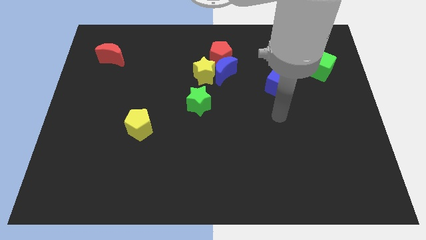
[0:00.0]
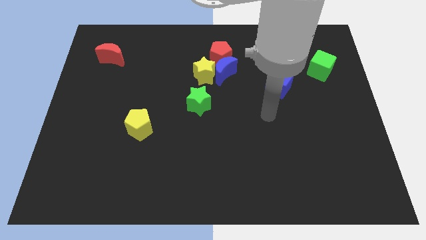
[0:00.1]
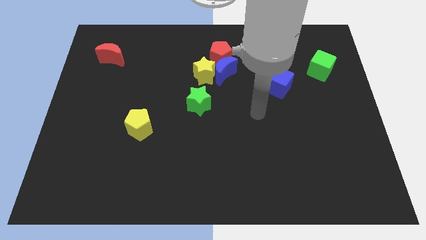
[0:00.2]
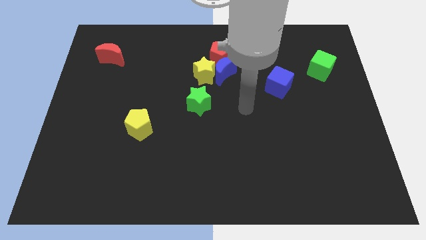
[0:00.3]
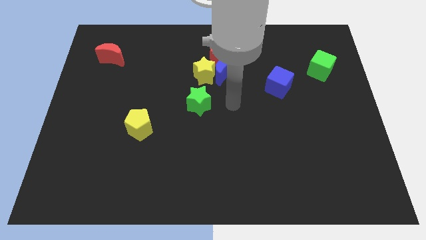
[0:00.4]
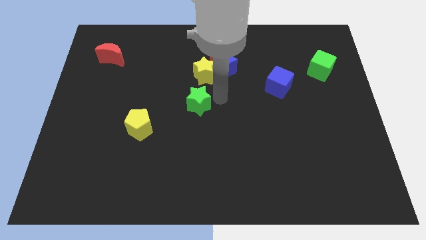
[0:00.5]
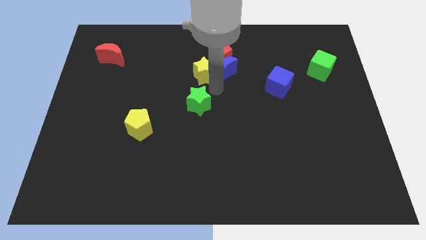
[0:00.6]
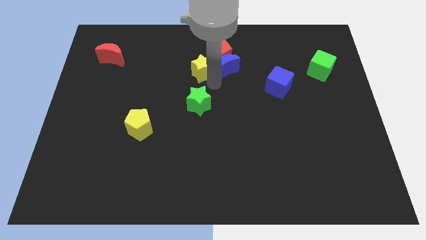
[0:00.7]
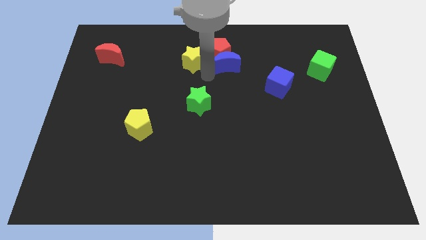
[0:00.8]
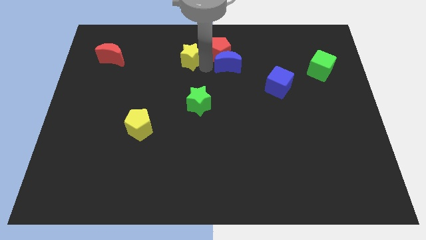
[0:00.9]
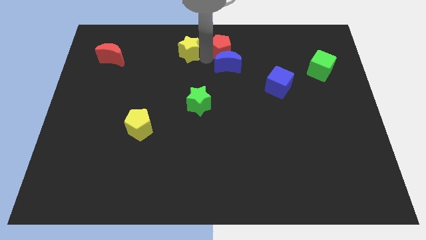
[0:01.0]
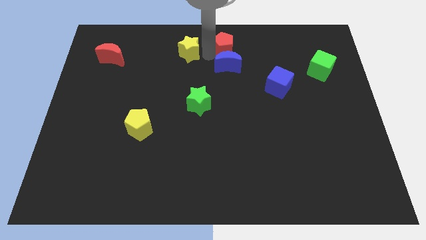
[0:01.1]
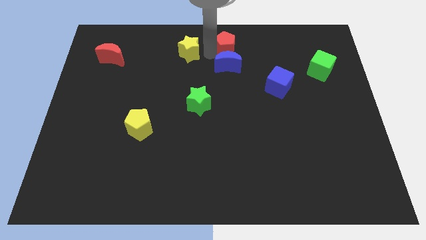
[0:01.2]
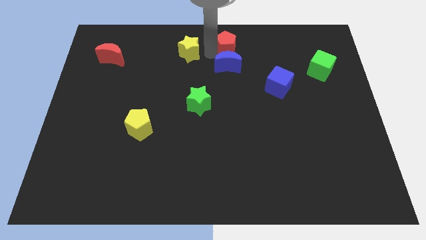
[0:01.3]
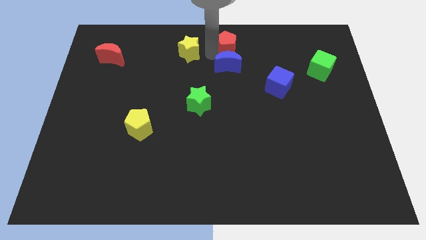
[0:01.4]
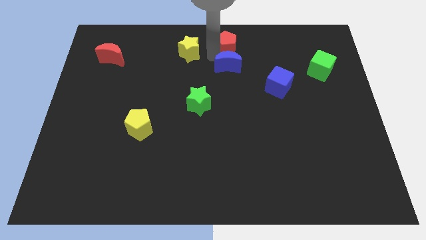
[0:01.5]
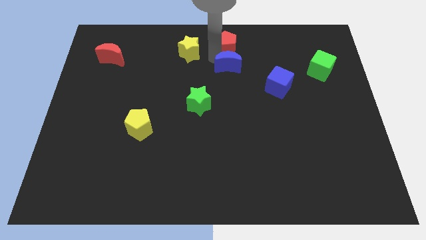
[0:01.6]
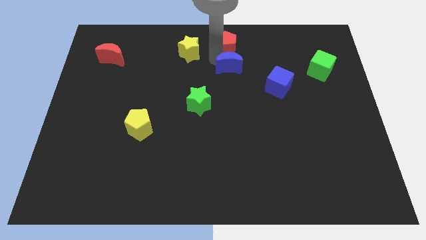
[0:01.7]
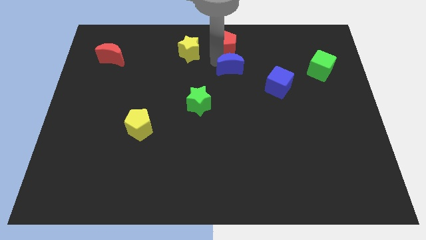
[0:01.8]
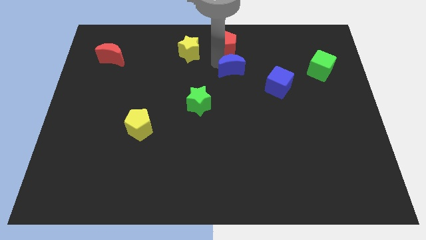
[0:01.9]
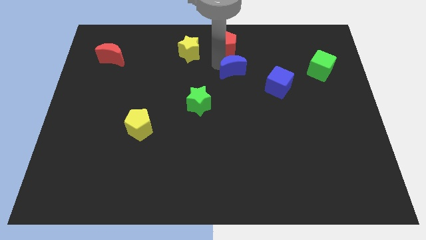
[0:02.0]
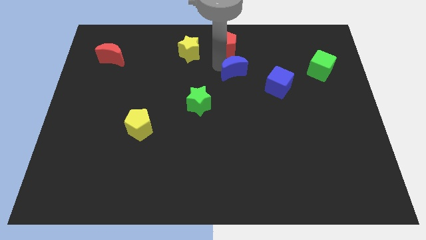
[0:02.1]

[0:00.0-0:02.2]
move the blue moon away from the yellow star and red pentagon

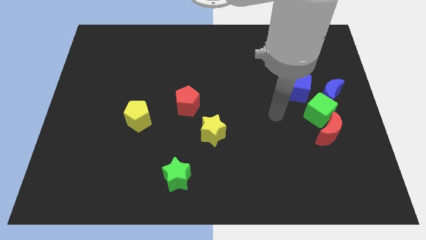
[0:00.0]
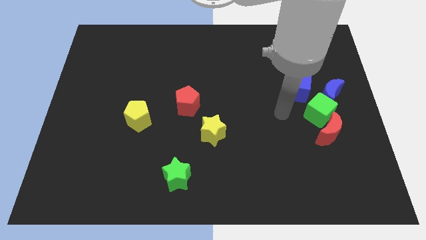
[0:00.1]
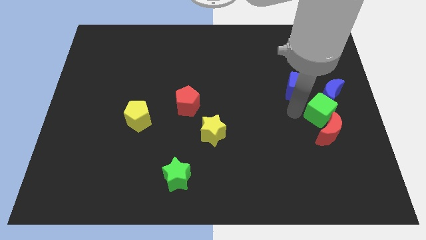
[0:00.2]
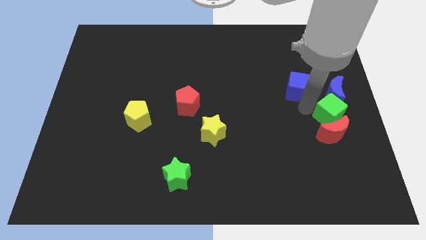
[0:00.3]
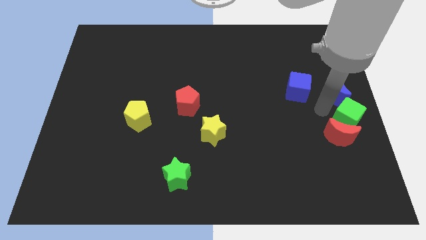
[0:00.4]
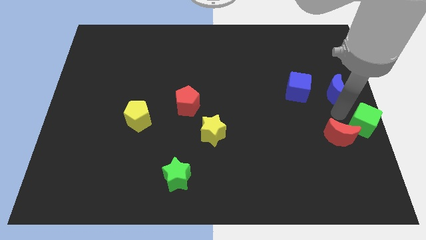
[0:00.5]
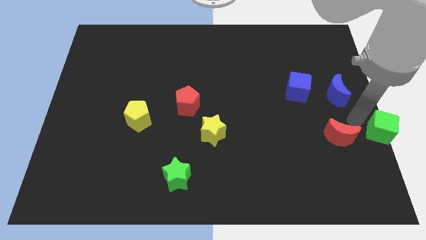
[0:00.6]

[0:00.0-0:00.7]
separate the red moon from the green cube

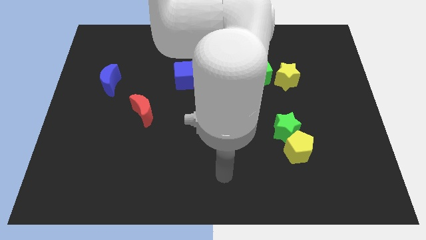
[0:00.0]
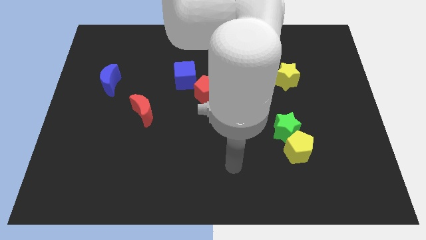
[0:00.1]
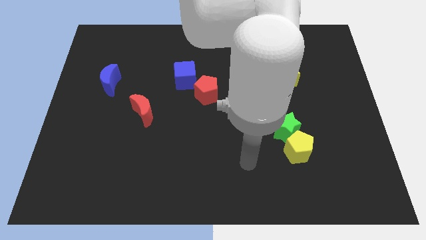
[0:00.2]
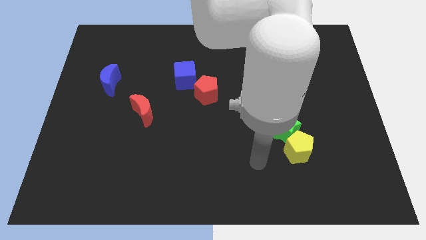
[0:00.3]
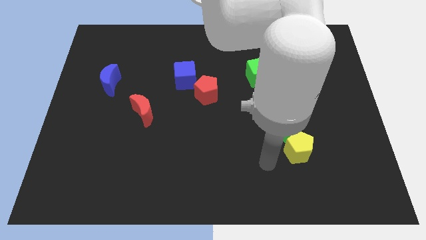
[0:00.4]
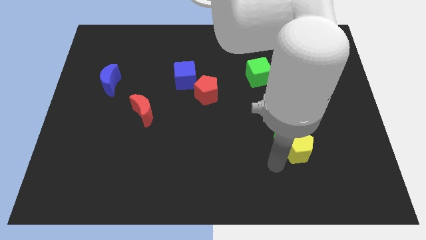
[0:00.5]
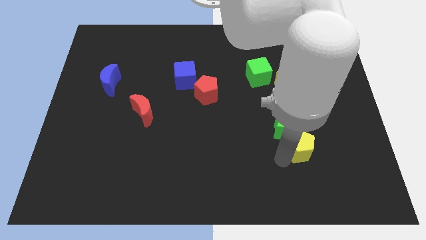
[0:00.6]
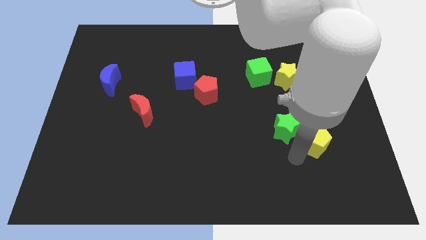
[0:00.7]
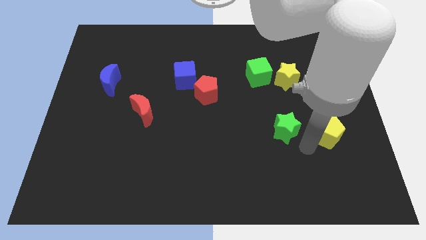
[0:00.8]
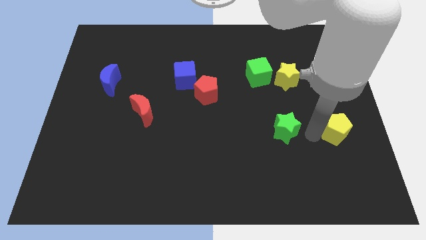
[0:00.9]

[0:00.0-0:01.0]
move the green star away from the yellow pentagon

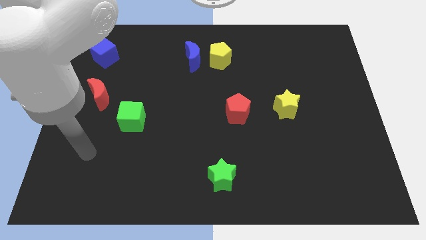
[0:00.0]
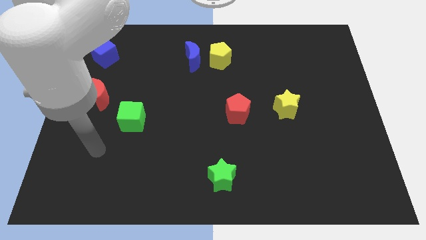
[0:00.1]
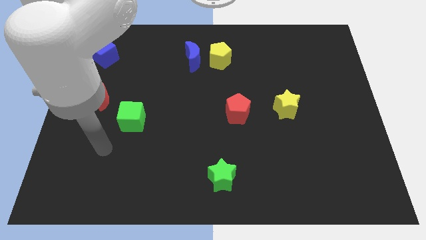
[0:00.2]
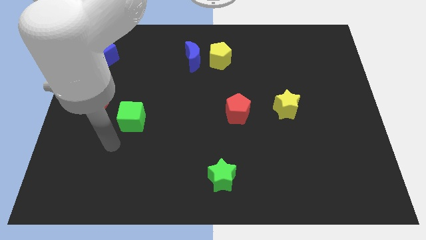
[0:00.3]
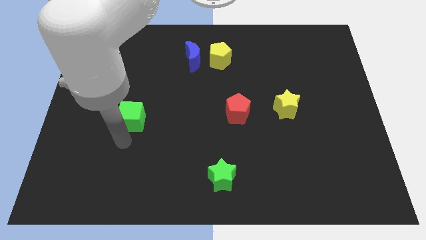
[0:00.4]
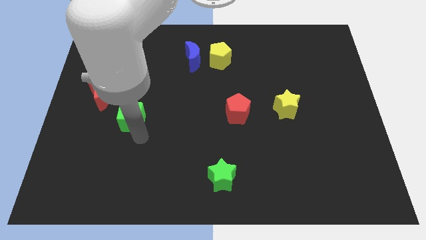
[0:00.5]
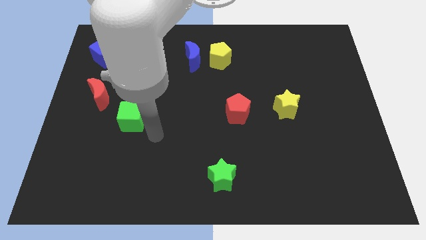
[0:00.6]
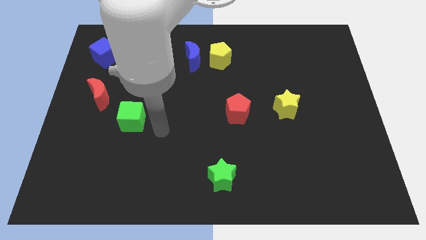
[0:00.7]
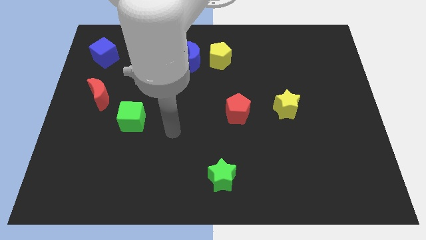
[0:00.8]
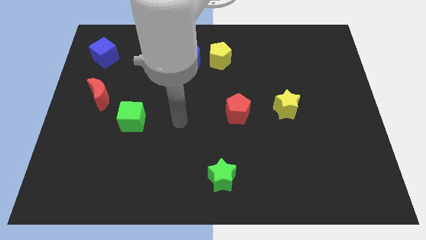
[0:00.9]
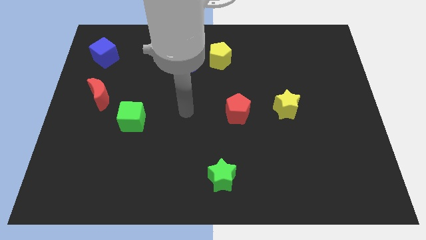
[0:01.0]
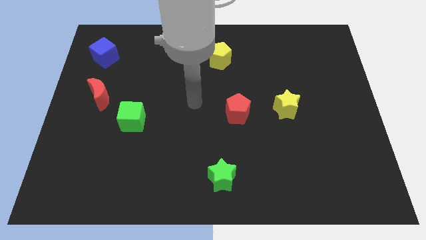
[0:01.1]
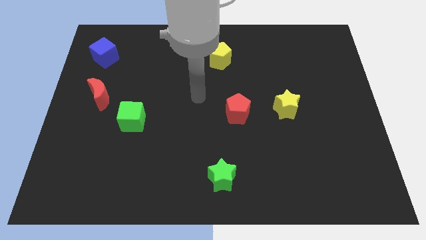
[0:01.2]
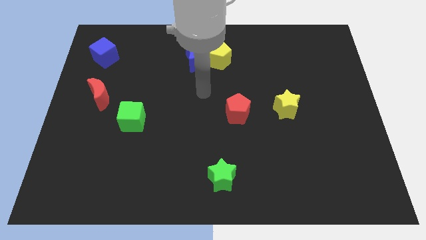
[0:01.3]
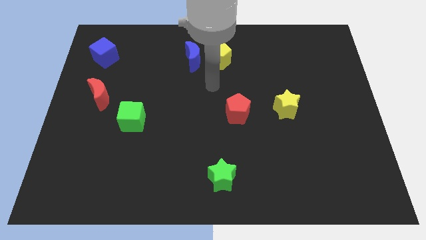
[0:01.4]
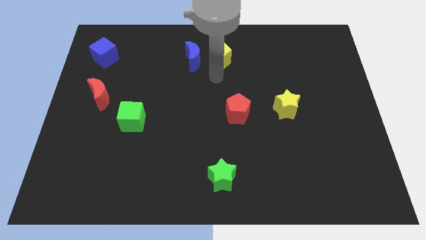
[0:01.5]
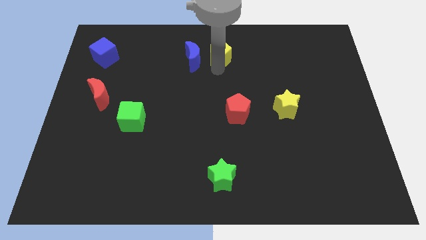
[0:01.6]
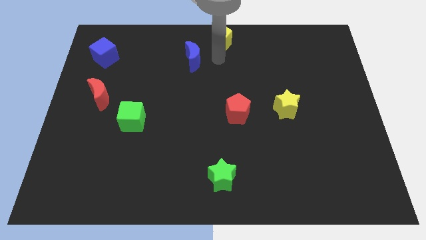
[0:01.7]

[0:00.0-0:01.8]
pull the blue moon apart from the yellow pentagon

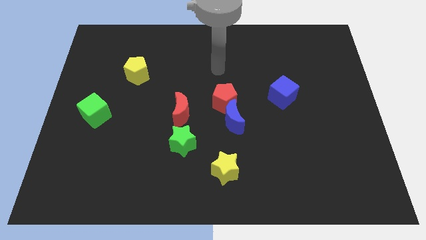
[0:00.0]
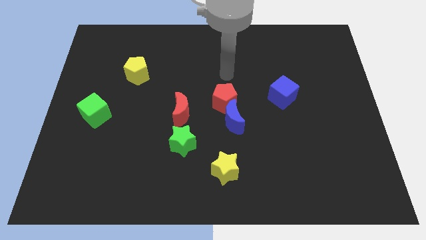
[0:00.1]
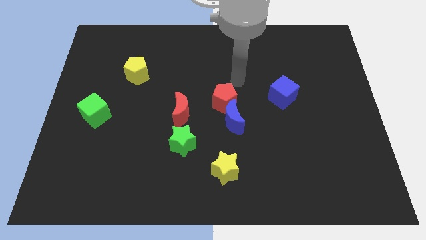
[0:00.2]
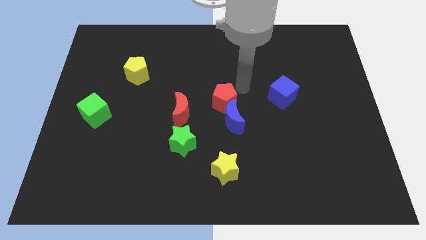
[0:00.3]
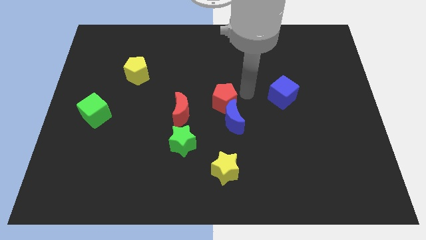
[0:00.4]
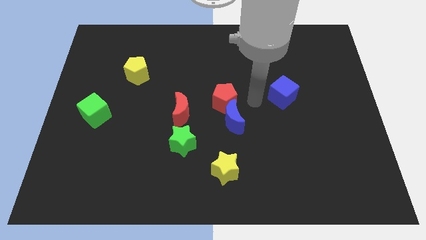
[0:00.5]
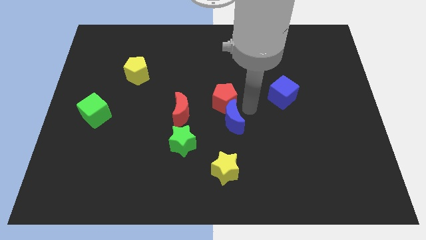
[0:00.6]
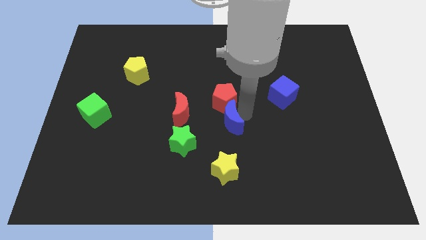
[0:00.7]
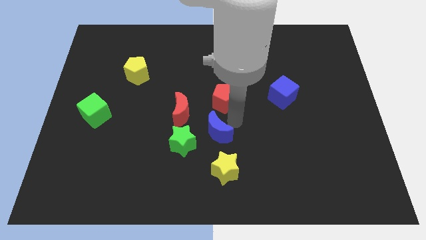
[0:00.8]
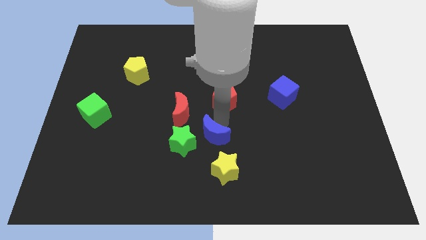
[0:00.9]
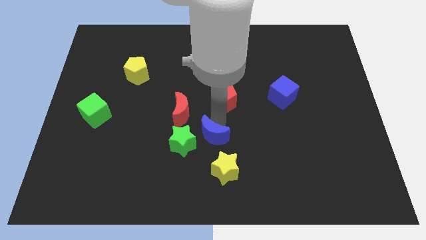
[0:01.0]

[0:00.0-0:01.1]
move the red pentagon away from the blue moon

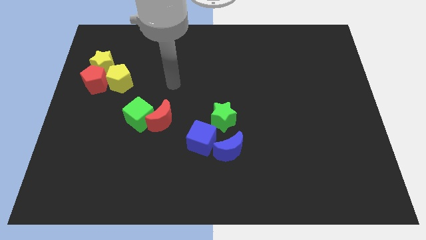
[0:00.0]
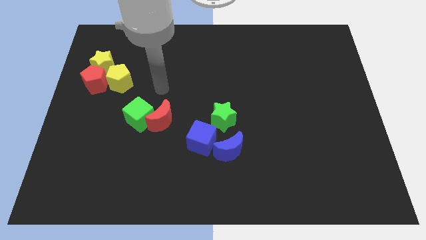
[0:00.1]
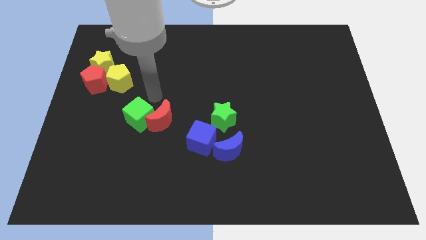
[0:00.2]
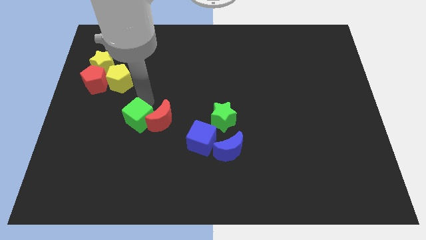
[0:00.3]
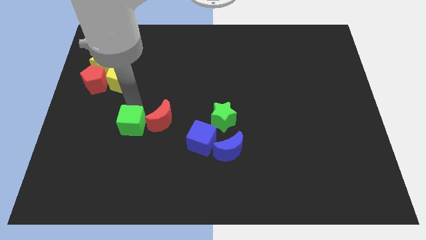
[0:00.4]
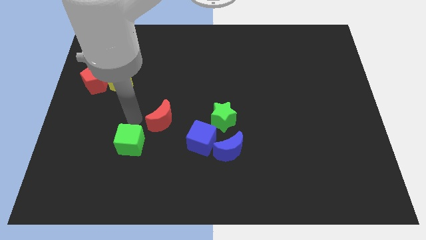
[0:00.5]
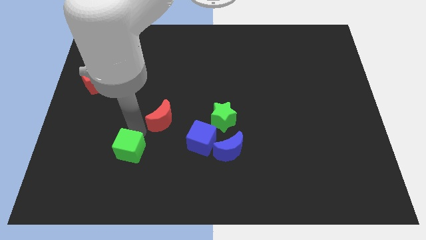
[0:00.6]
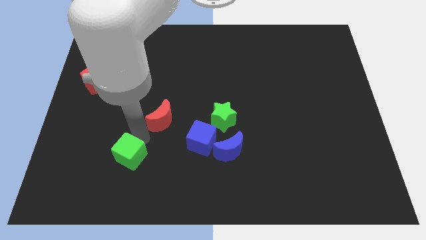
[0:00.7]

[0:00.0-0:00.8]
move the red moon away from the green cube

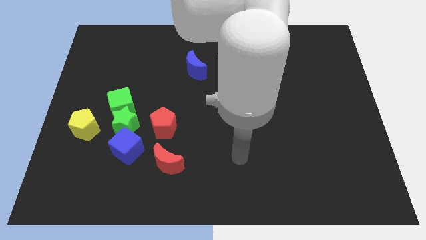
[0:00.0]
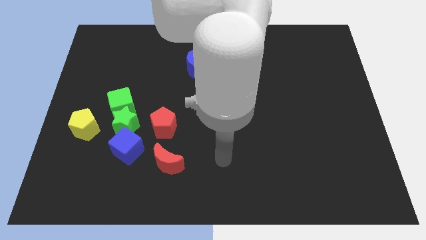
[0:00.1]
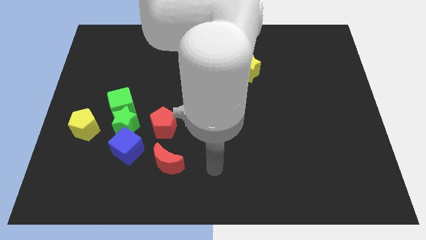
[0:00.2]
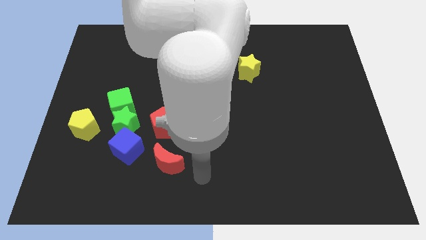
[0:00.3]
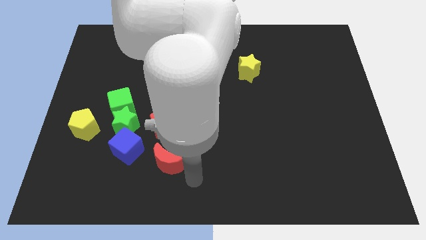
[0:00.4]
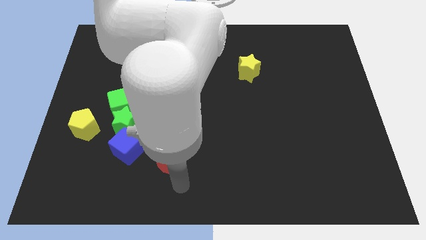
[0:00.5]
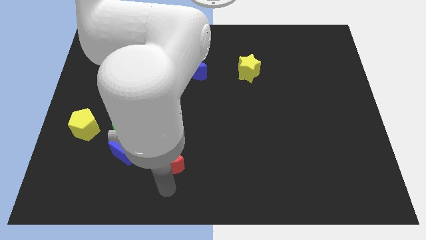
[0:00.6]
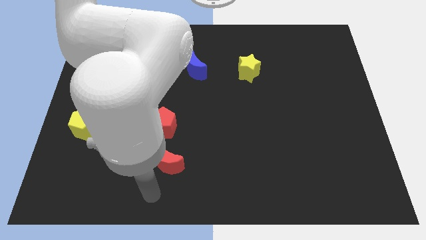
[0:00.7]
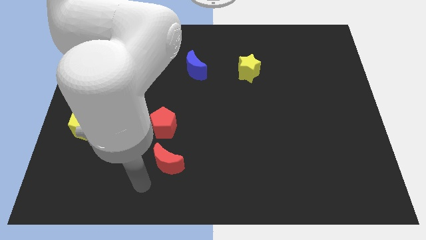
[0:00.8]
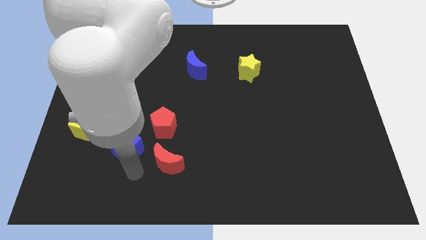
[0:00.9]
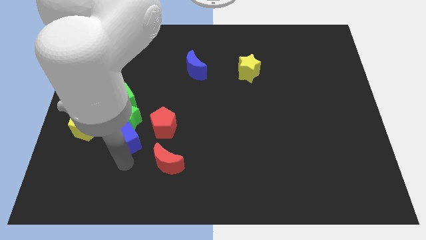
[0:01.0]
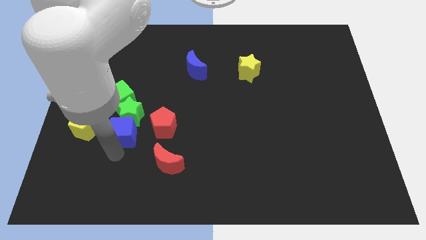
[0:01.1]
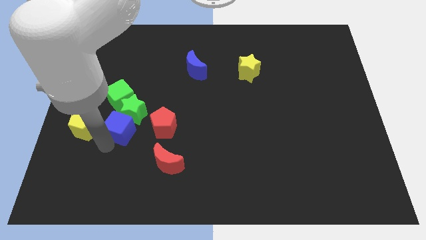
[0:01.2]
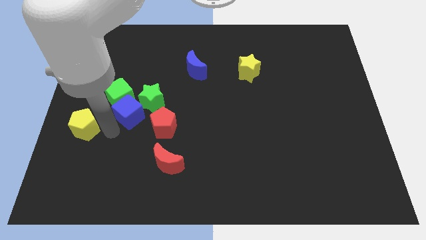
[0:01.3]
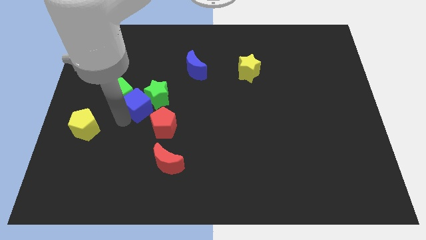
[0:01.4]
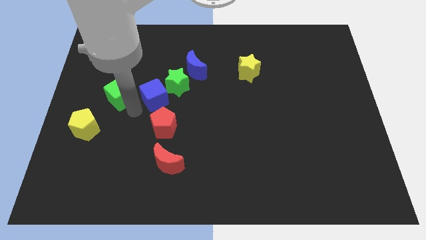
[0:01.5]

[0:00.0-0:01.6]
separate the green star from the group

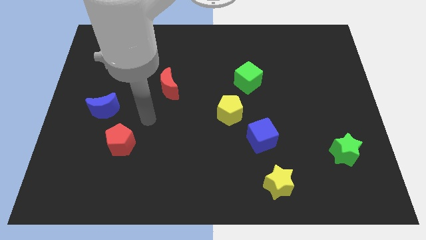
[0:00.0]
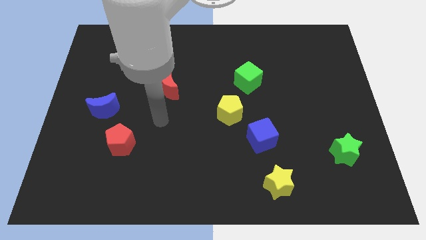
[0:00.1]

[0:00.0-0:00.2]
separate the blue cube from the yellow pentagon
